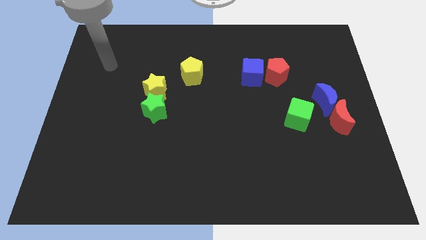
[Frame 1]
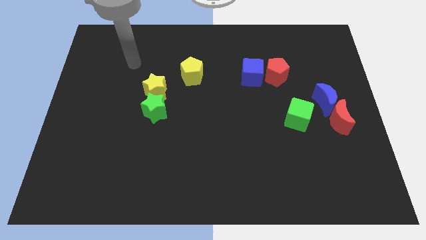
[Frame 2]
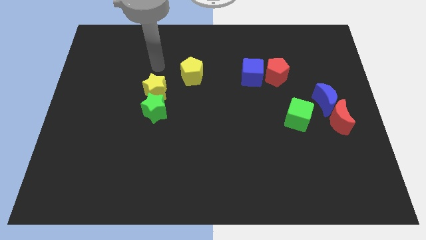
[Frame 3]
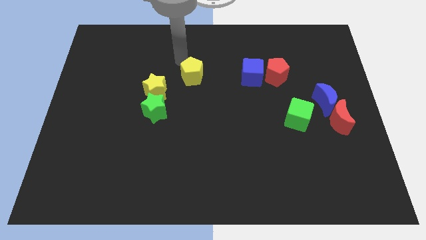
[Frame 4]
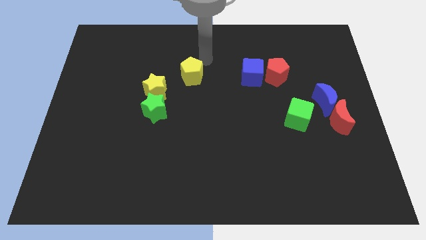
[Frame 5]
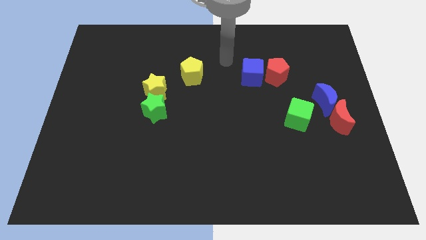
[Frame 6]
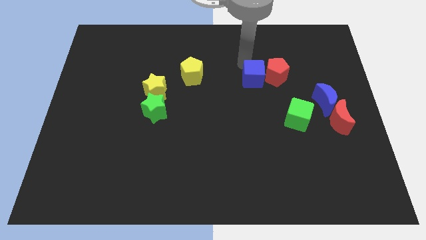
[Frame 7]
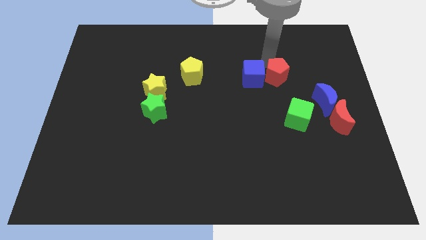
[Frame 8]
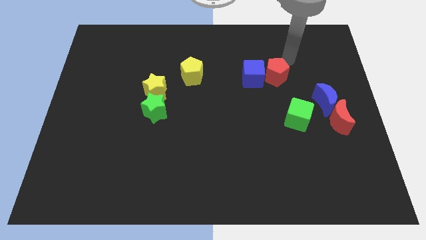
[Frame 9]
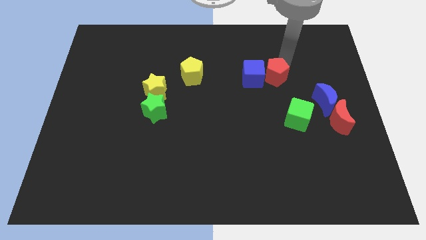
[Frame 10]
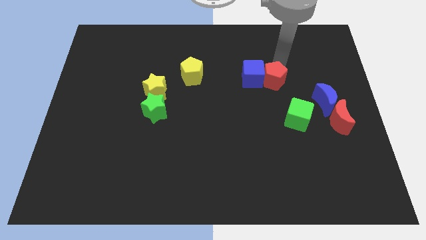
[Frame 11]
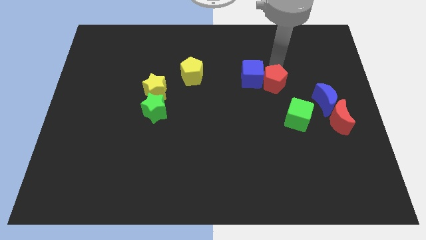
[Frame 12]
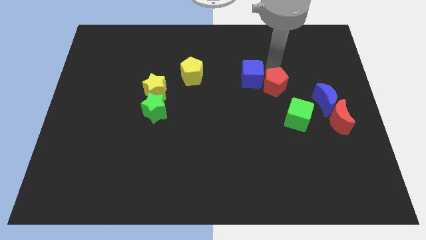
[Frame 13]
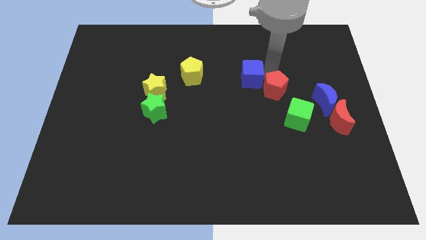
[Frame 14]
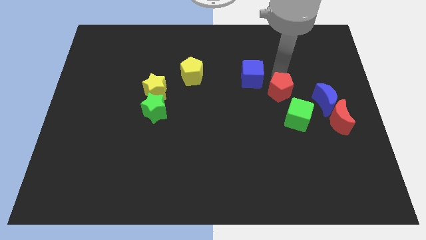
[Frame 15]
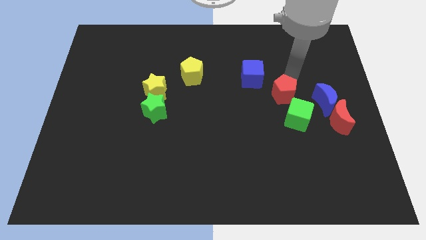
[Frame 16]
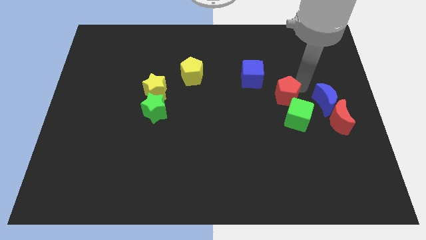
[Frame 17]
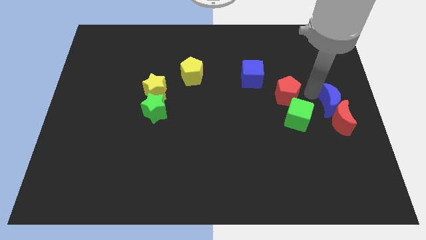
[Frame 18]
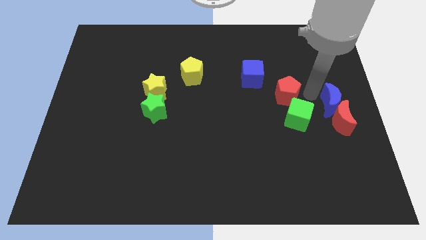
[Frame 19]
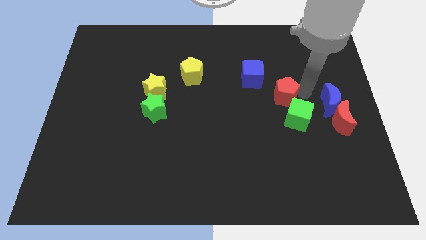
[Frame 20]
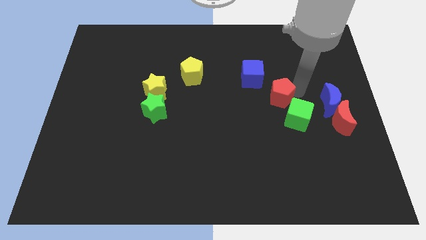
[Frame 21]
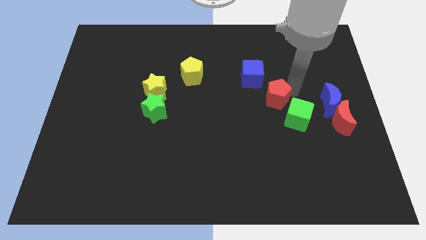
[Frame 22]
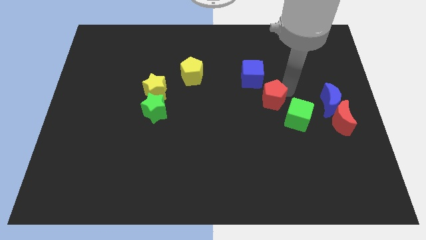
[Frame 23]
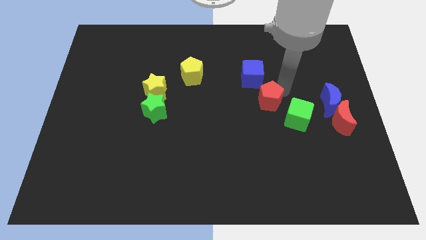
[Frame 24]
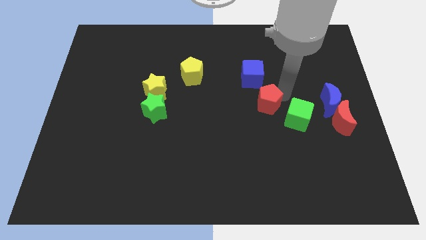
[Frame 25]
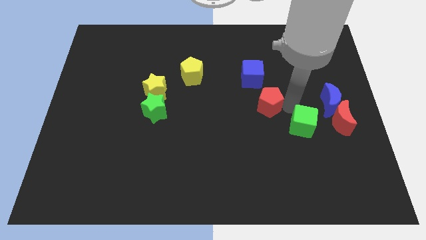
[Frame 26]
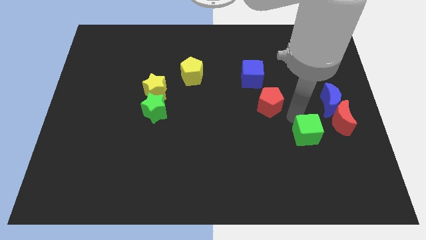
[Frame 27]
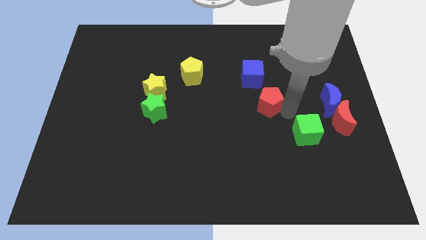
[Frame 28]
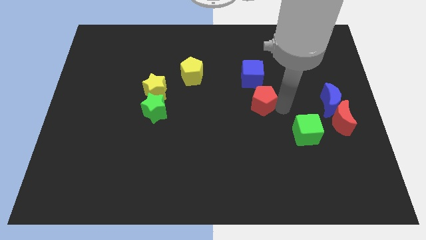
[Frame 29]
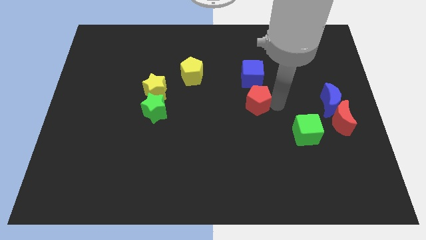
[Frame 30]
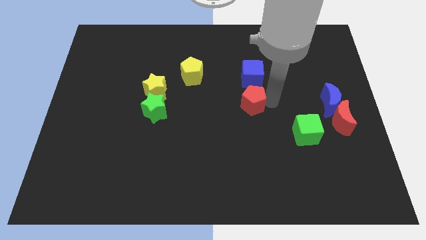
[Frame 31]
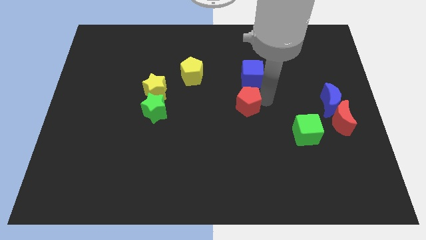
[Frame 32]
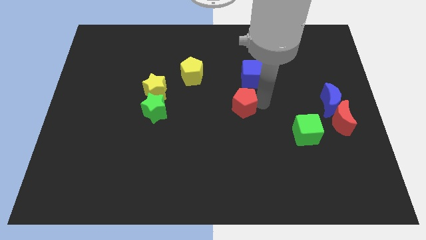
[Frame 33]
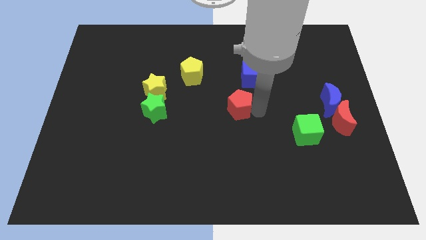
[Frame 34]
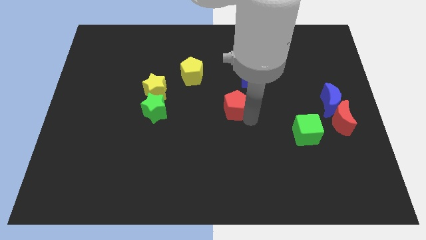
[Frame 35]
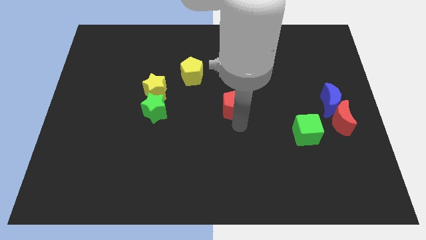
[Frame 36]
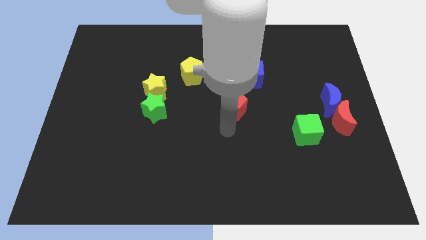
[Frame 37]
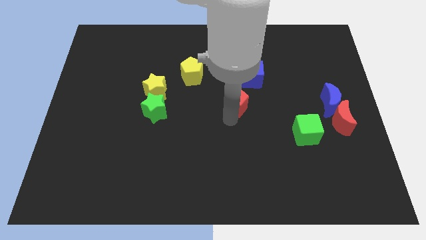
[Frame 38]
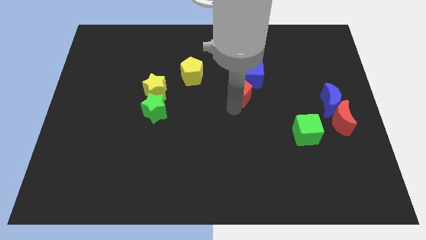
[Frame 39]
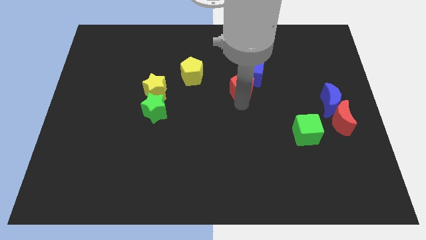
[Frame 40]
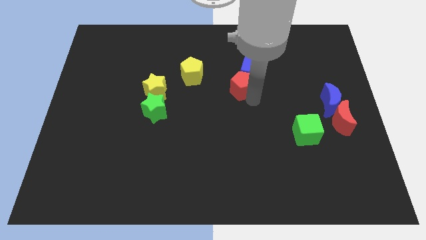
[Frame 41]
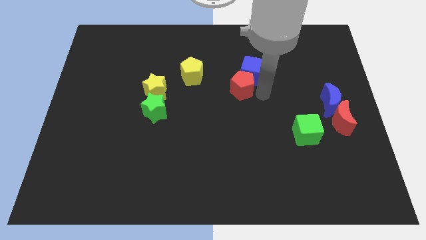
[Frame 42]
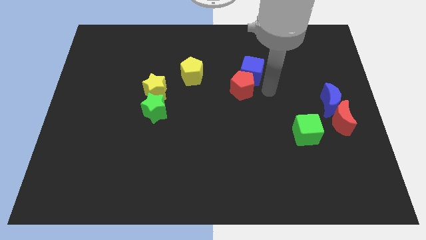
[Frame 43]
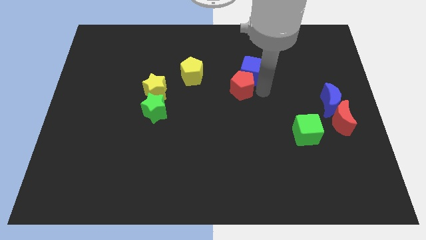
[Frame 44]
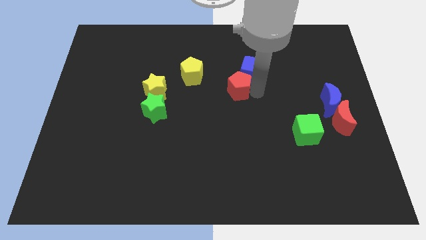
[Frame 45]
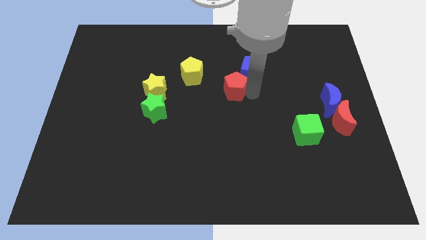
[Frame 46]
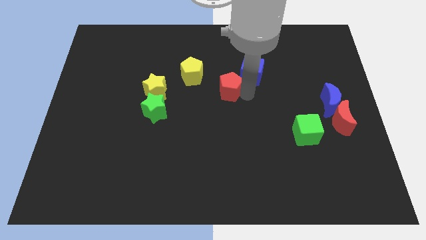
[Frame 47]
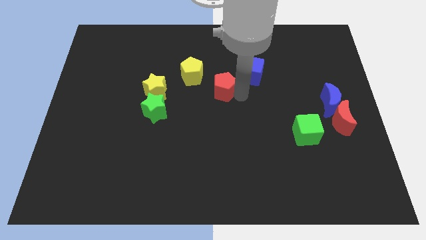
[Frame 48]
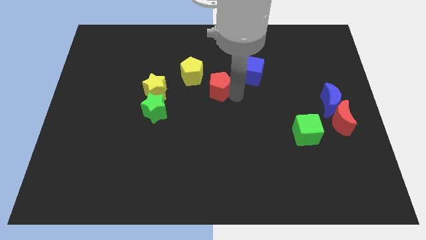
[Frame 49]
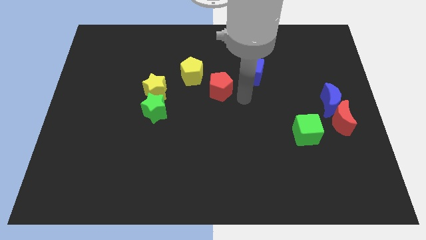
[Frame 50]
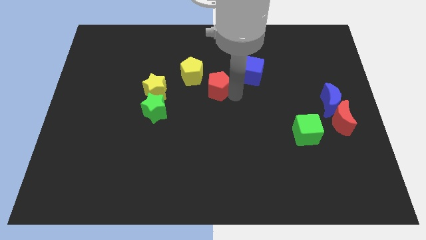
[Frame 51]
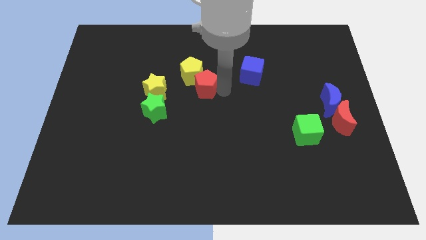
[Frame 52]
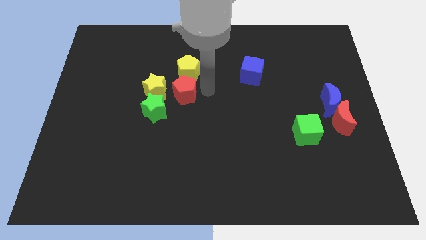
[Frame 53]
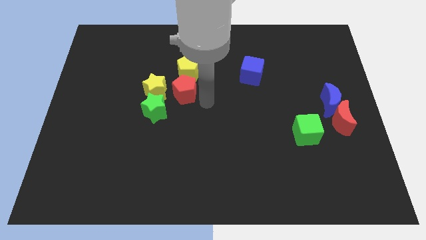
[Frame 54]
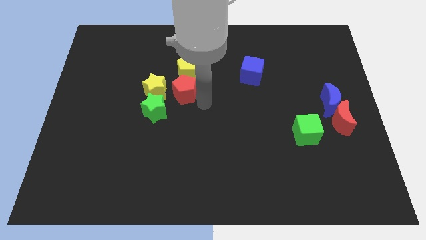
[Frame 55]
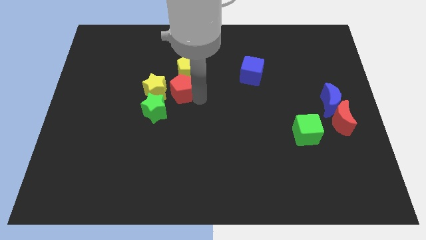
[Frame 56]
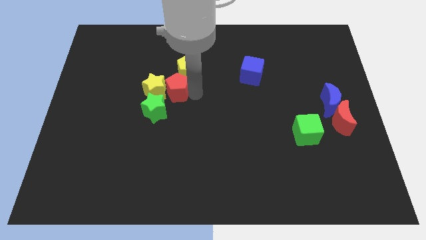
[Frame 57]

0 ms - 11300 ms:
move the red pentagon to the top of the green star

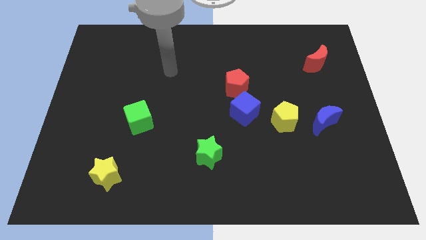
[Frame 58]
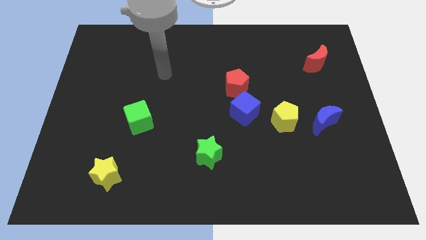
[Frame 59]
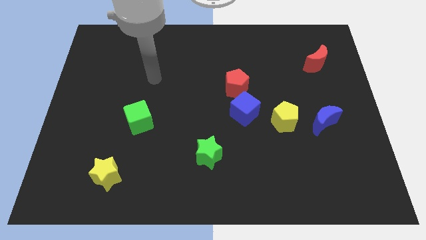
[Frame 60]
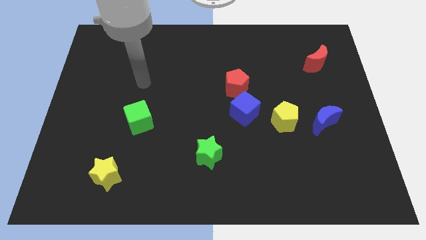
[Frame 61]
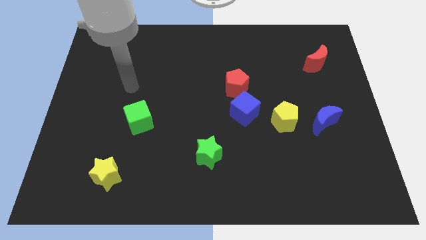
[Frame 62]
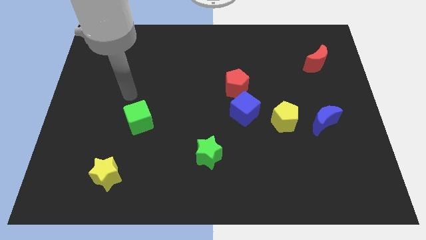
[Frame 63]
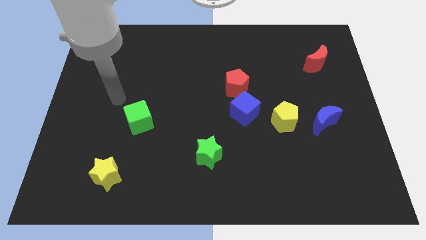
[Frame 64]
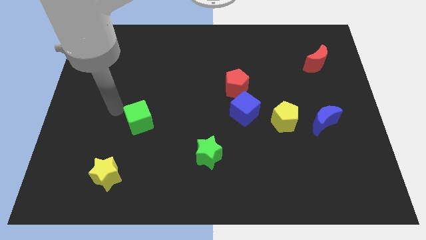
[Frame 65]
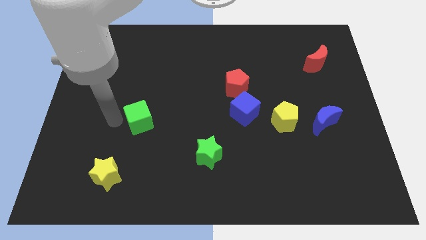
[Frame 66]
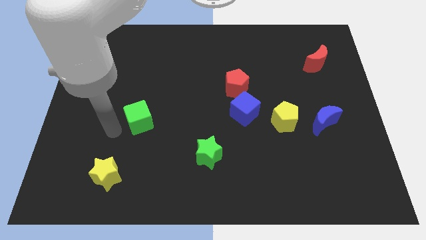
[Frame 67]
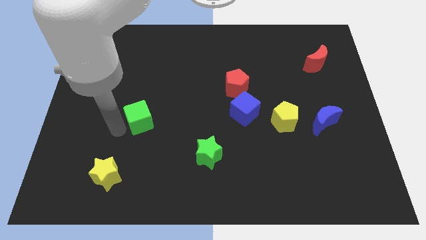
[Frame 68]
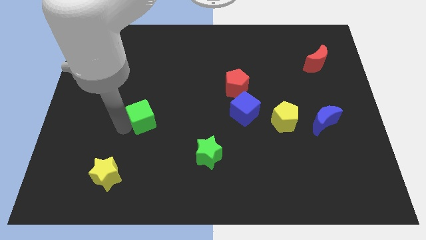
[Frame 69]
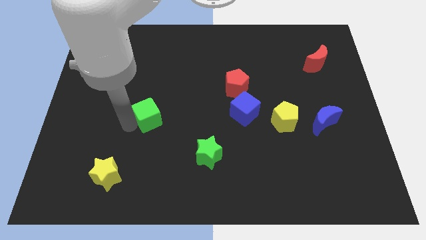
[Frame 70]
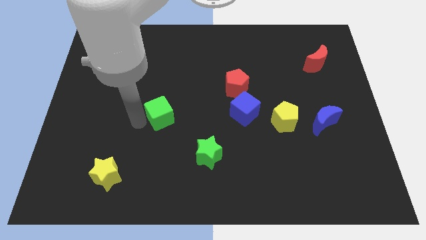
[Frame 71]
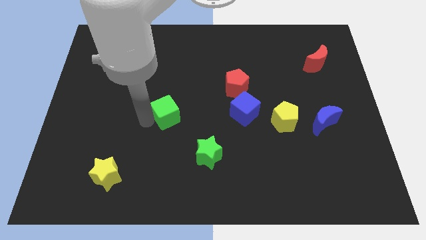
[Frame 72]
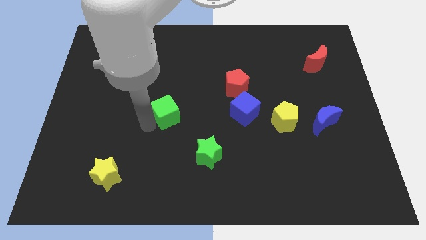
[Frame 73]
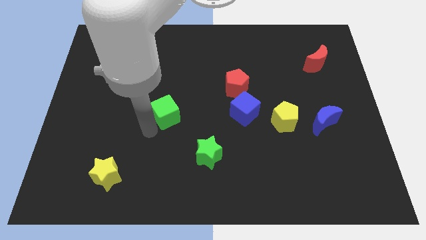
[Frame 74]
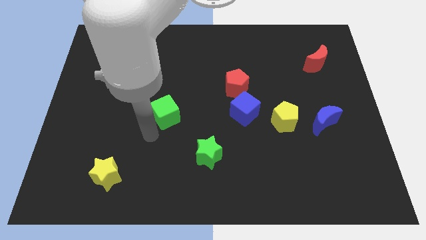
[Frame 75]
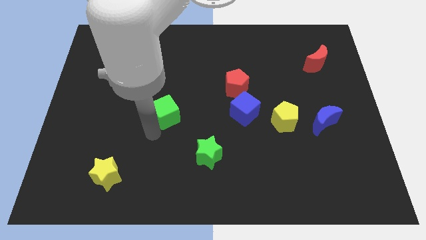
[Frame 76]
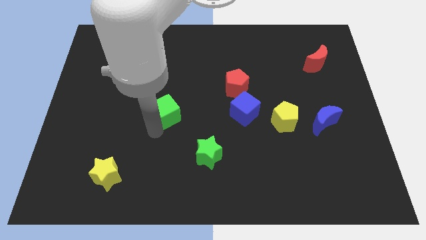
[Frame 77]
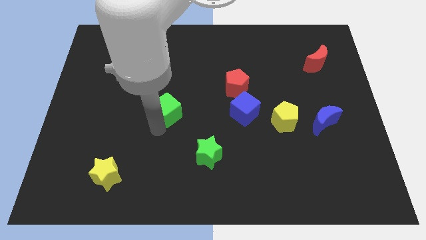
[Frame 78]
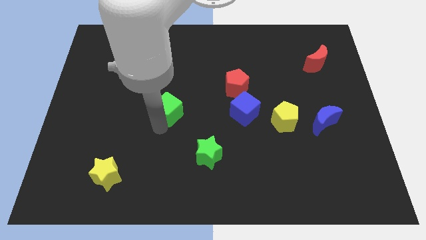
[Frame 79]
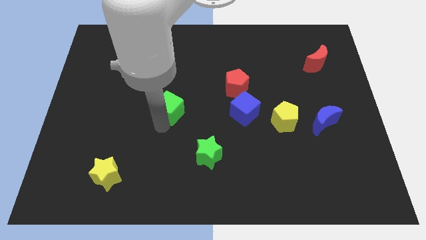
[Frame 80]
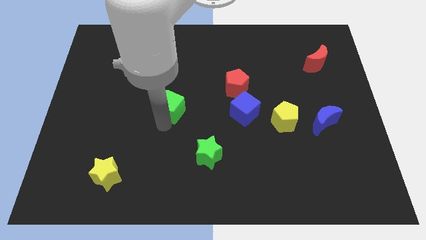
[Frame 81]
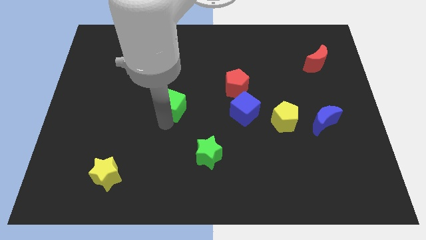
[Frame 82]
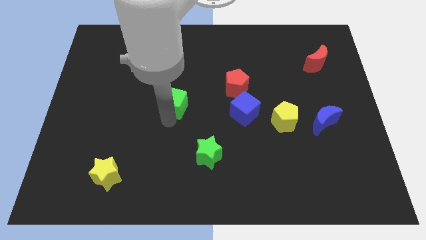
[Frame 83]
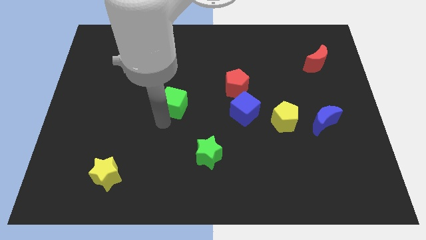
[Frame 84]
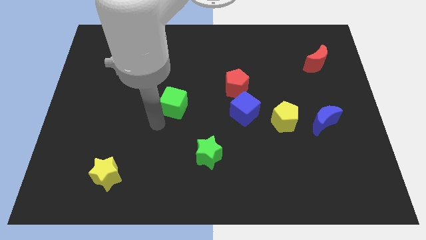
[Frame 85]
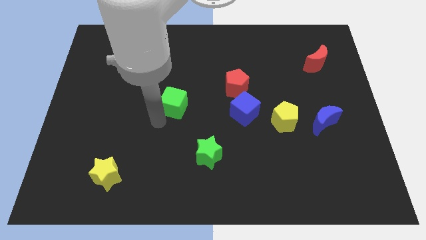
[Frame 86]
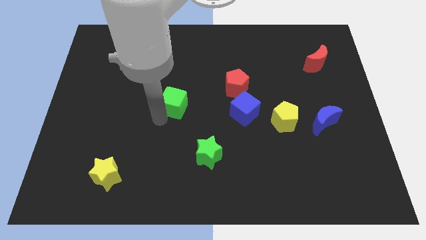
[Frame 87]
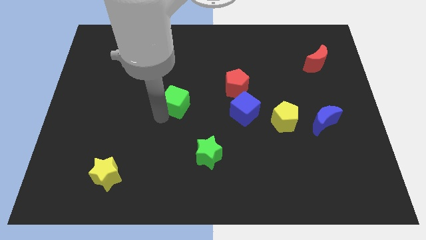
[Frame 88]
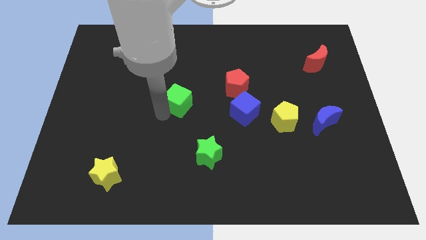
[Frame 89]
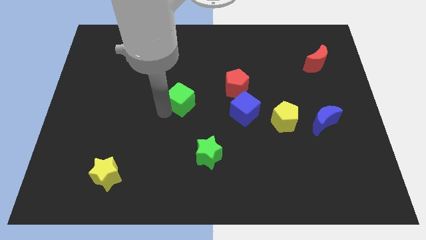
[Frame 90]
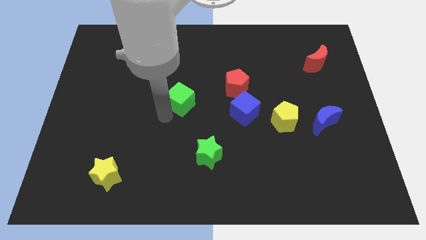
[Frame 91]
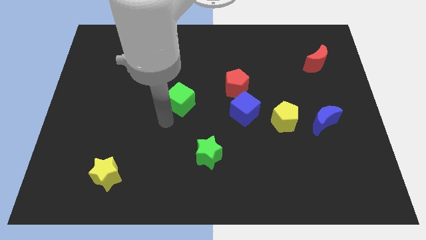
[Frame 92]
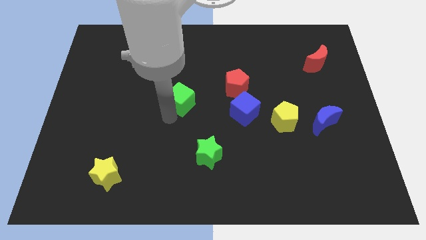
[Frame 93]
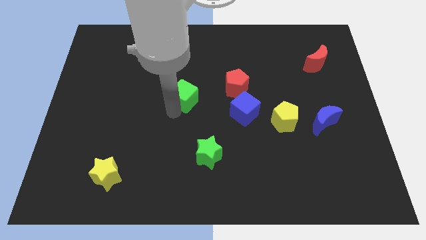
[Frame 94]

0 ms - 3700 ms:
move the green cube left of the red pentagon
